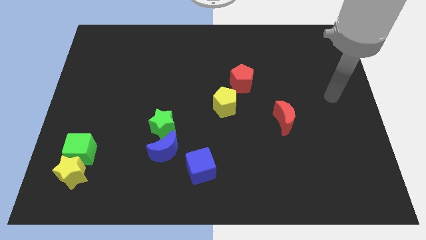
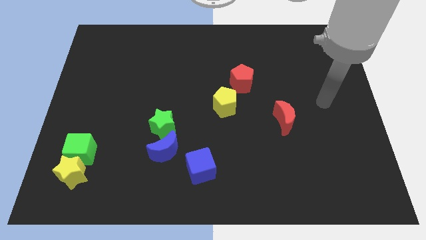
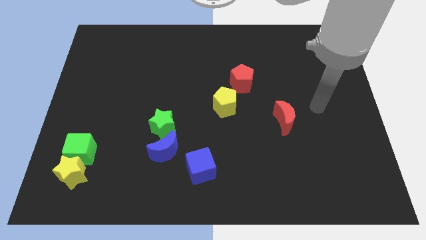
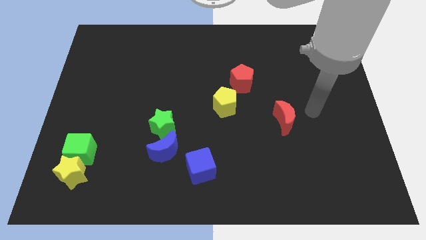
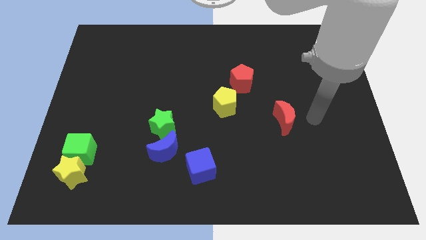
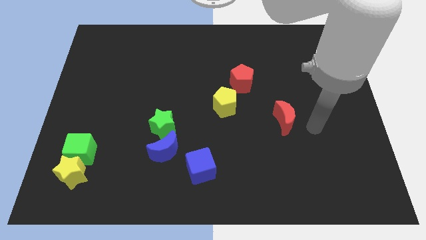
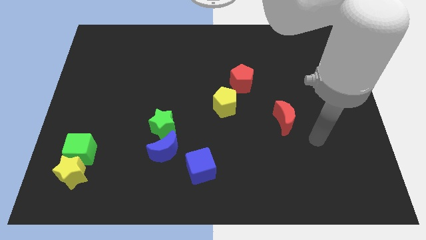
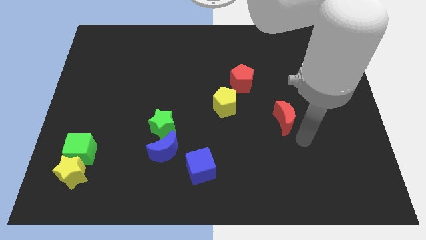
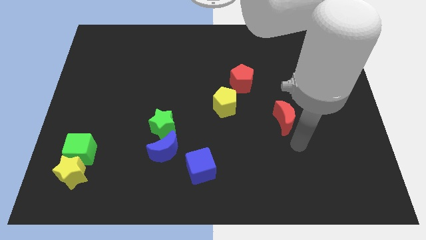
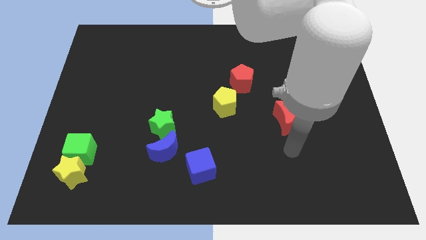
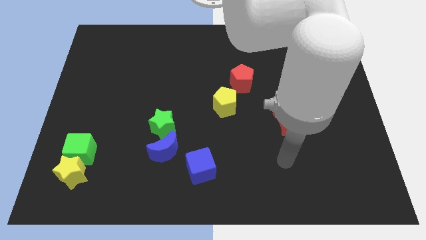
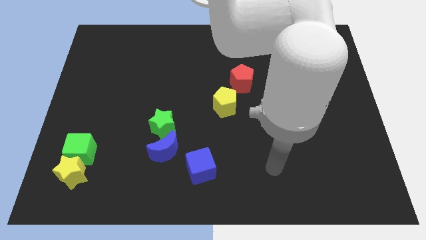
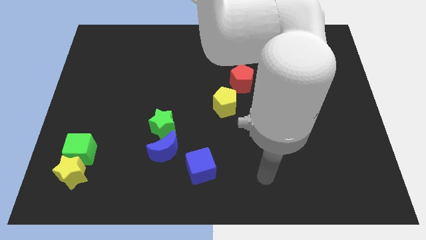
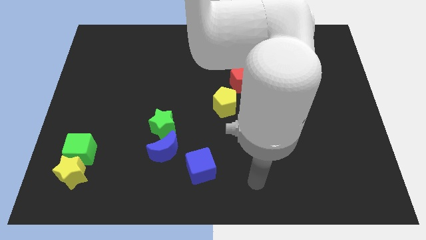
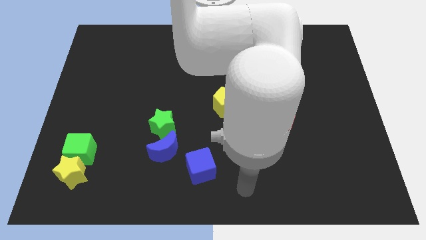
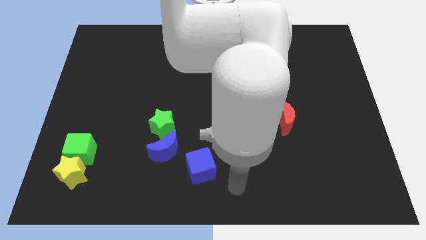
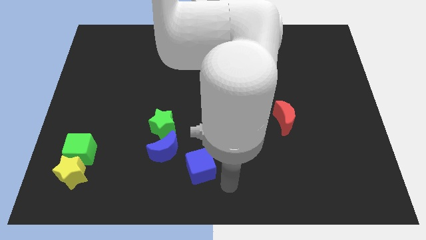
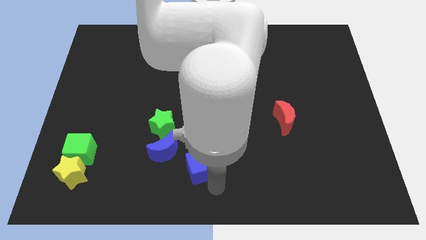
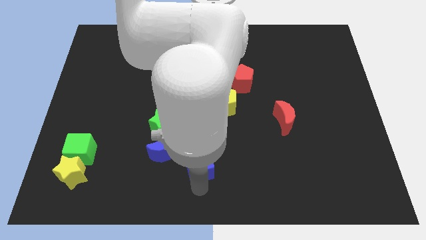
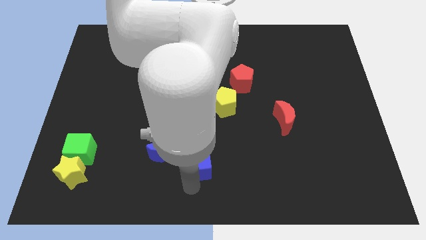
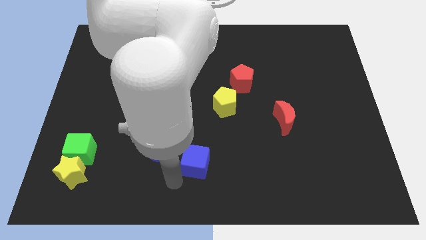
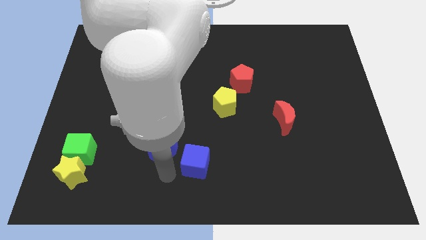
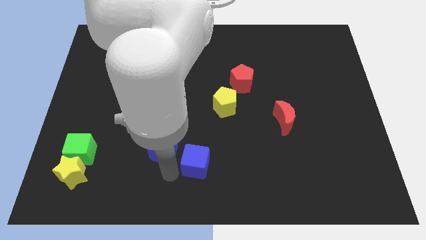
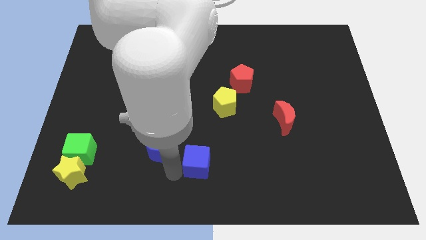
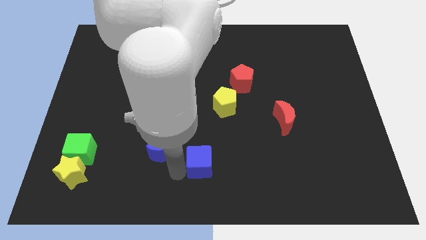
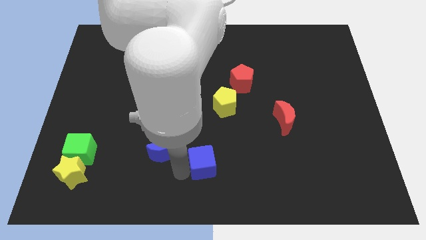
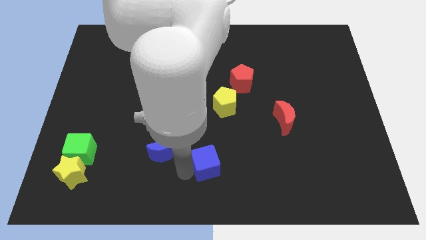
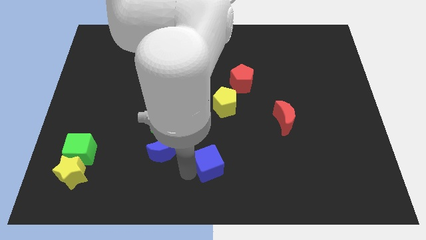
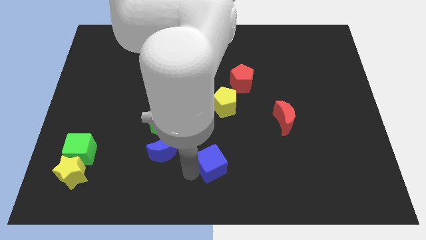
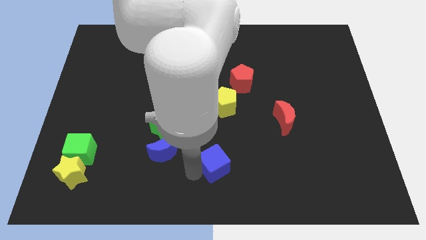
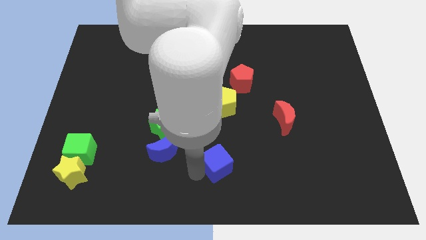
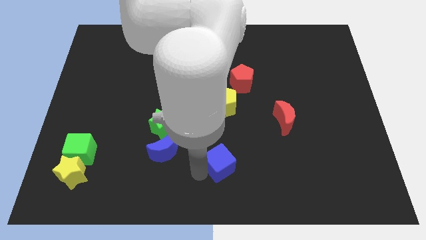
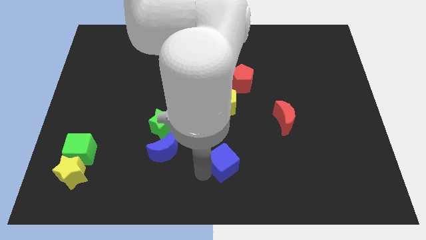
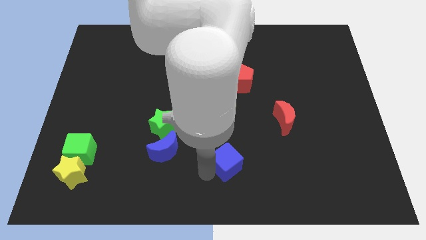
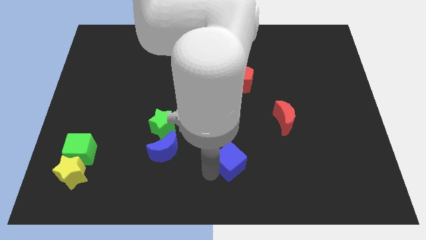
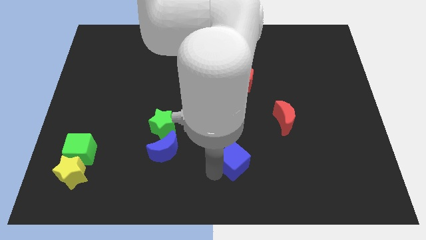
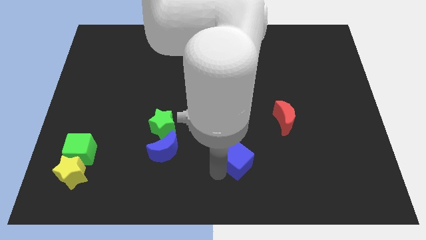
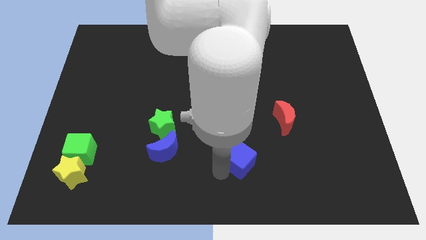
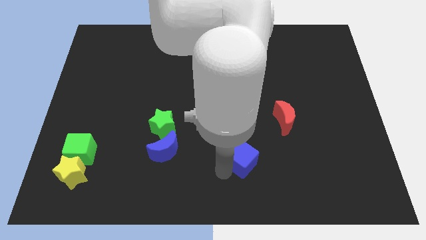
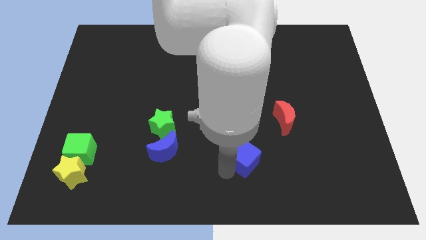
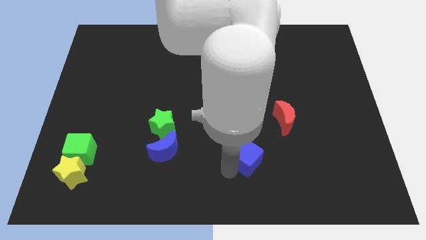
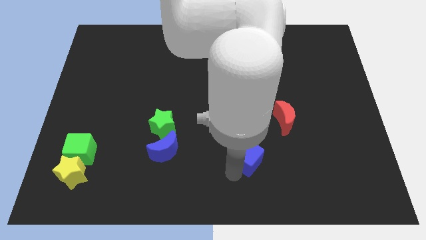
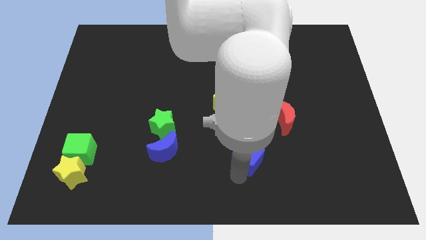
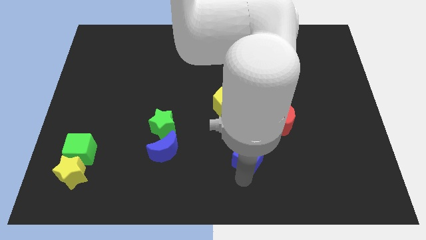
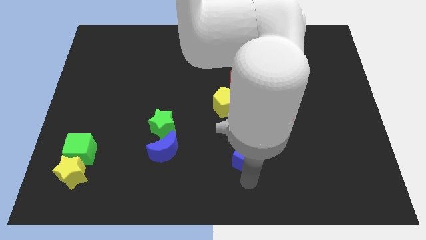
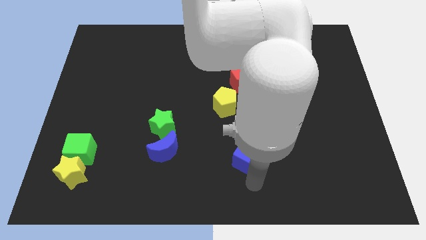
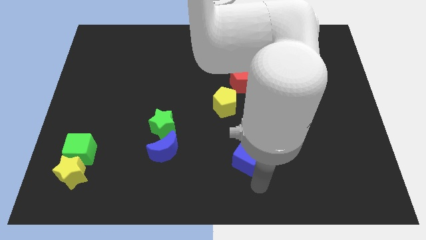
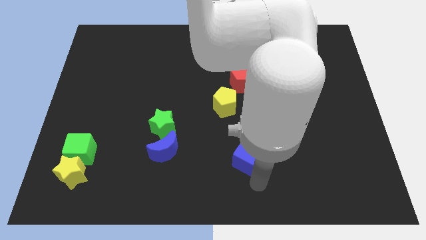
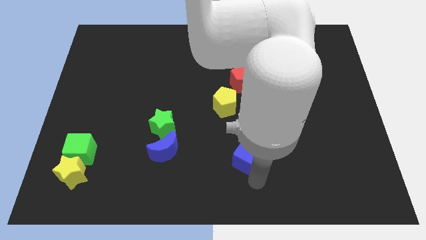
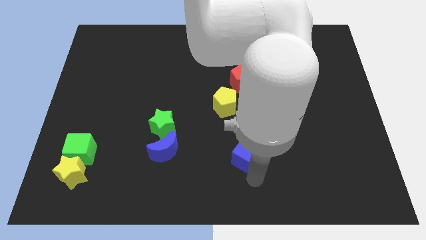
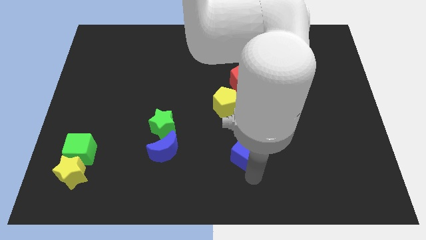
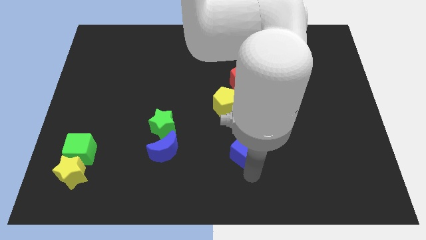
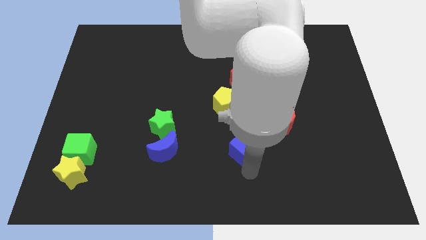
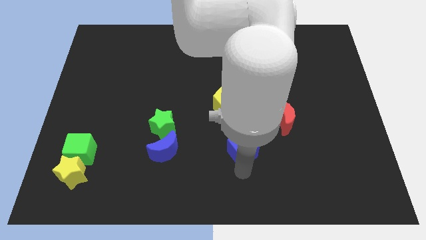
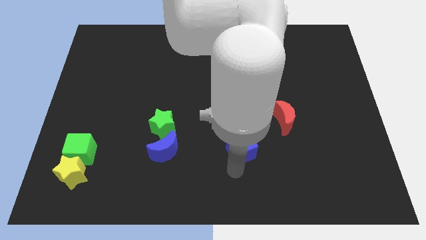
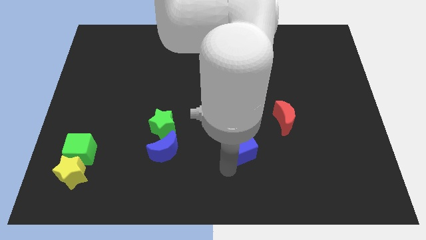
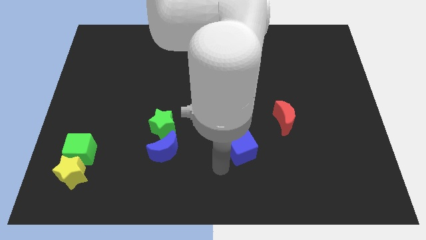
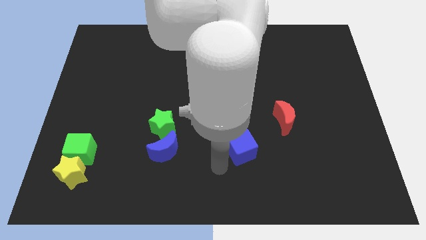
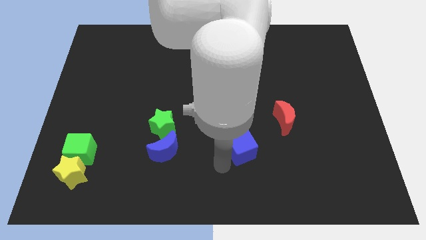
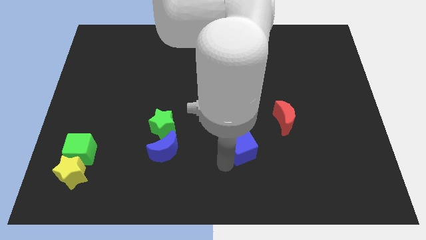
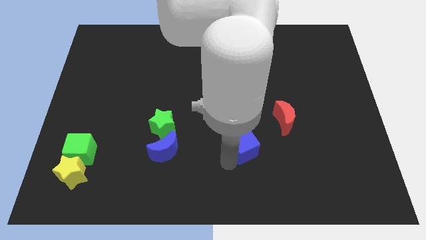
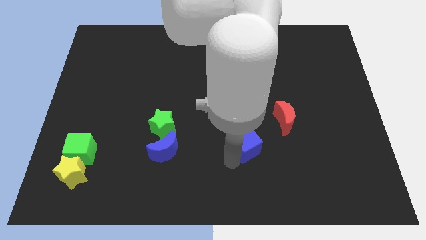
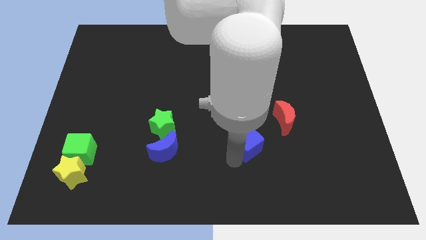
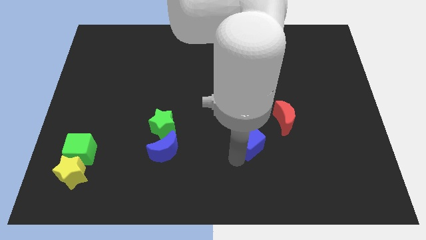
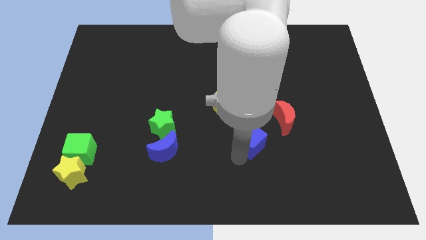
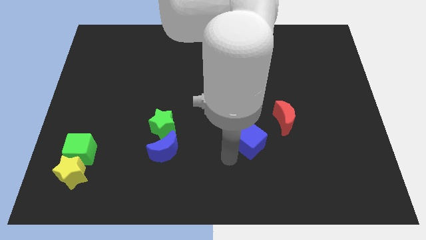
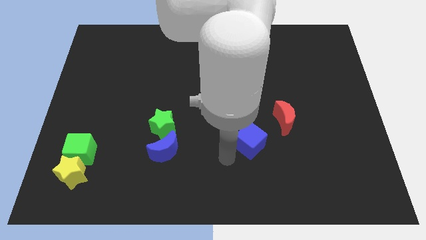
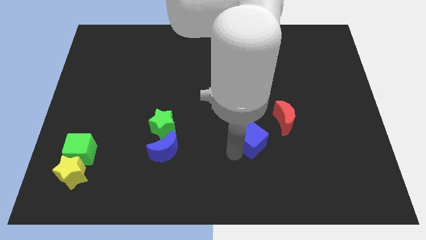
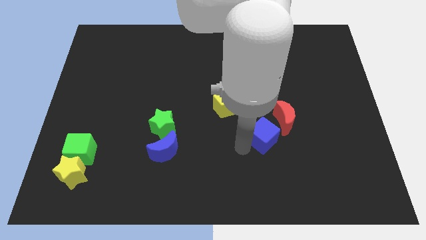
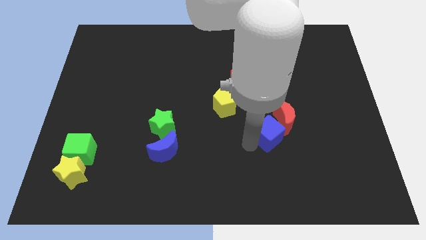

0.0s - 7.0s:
put the blue cube to the red moon
